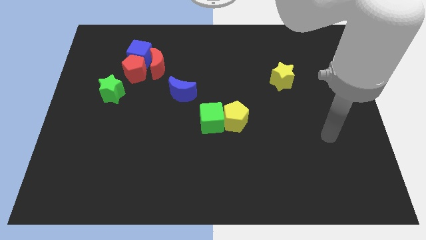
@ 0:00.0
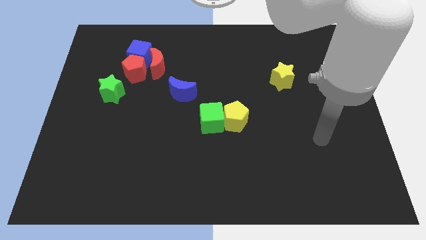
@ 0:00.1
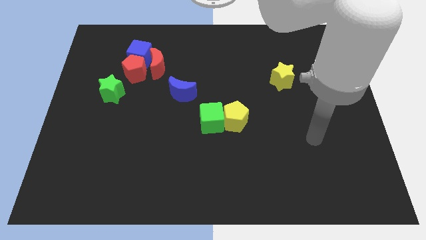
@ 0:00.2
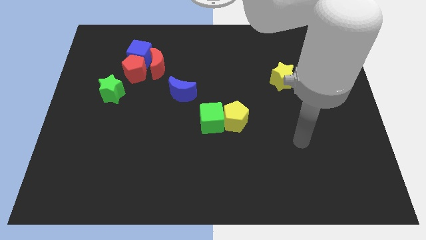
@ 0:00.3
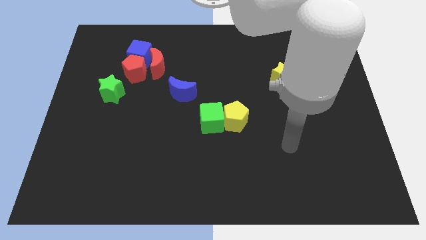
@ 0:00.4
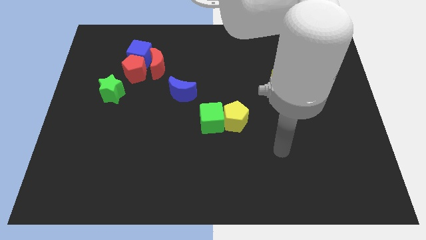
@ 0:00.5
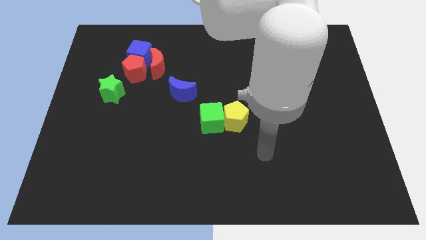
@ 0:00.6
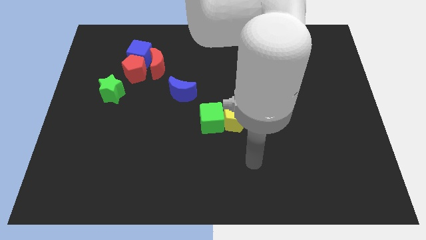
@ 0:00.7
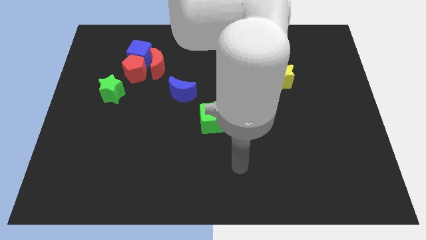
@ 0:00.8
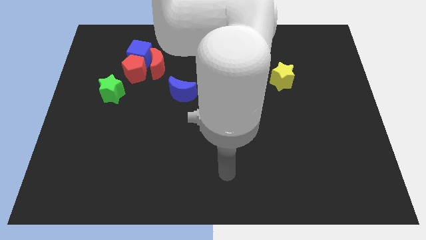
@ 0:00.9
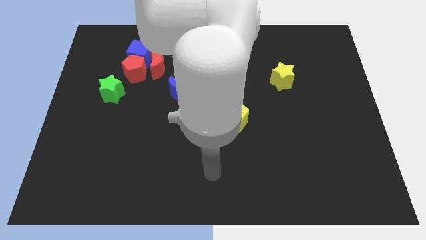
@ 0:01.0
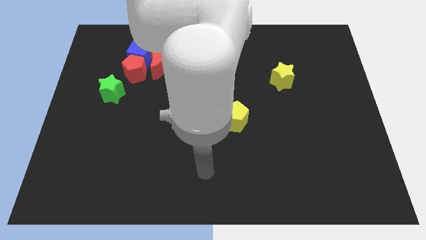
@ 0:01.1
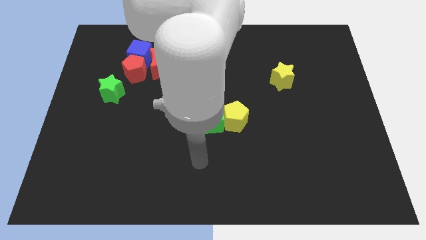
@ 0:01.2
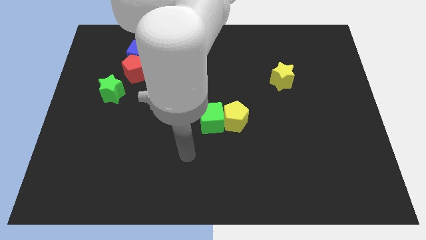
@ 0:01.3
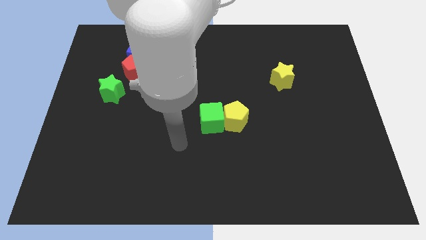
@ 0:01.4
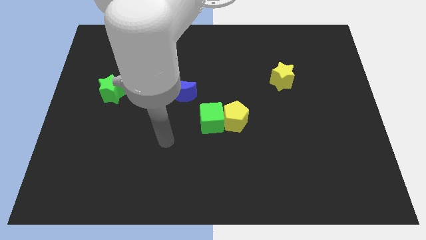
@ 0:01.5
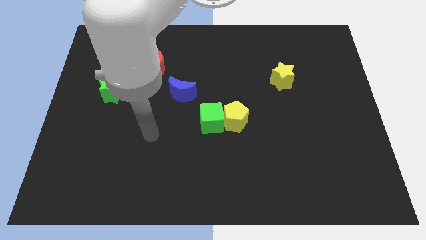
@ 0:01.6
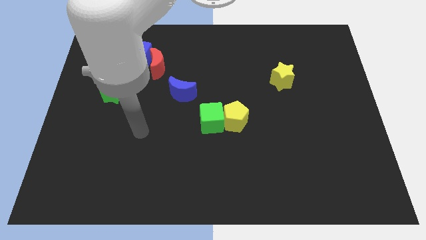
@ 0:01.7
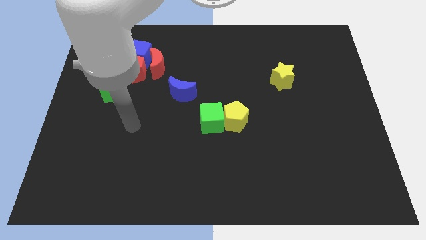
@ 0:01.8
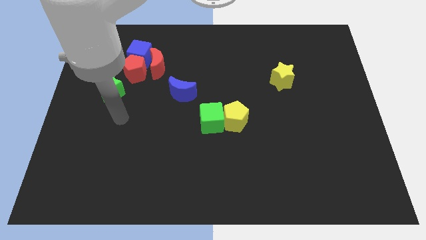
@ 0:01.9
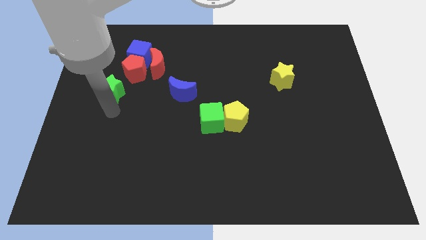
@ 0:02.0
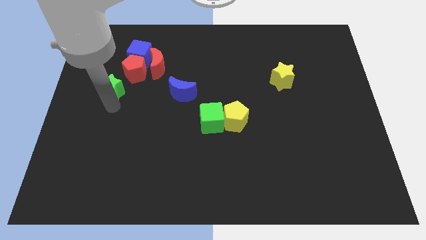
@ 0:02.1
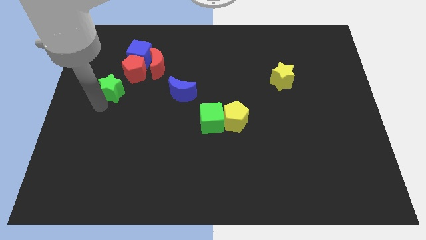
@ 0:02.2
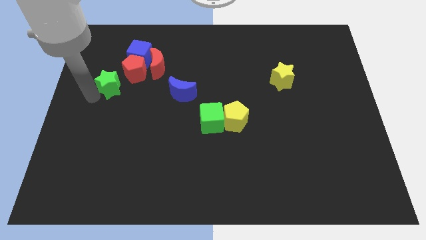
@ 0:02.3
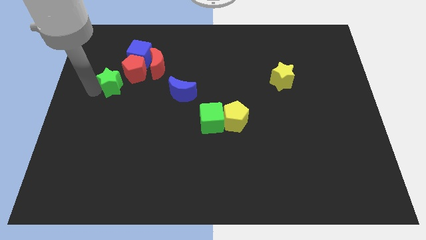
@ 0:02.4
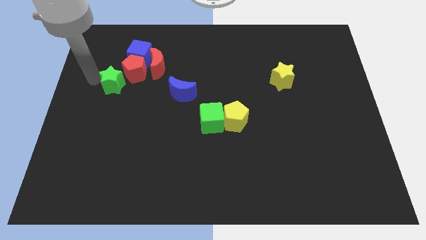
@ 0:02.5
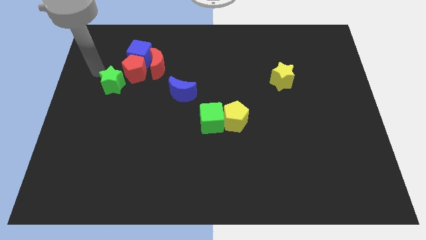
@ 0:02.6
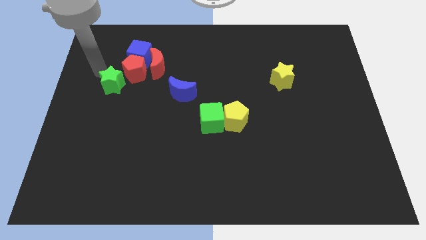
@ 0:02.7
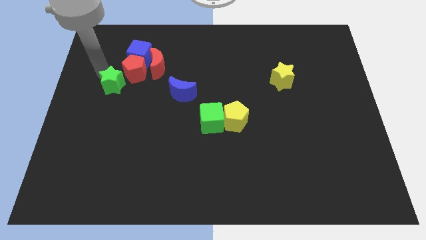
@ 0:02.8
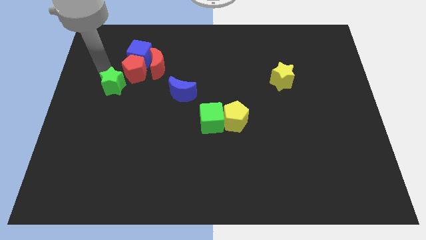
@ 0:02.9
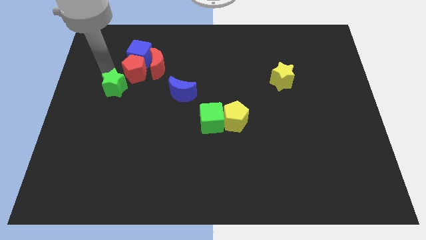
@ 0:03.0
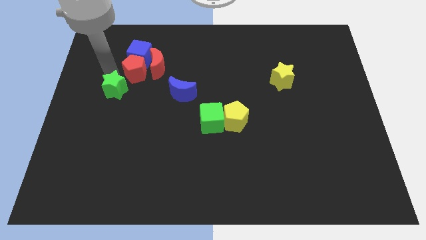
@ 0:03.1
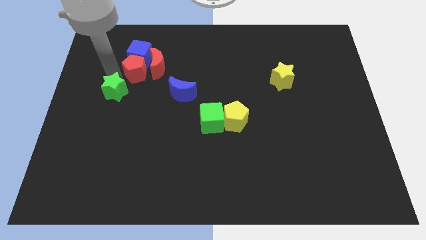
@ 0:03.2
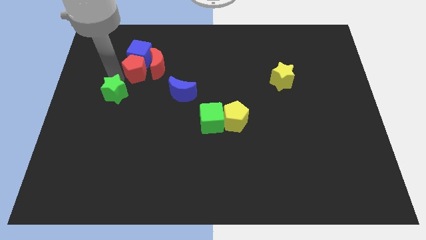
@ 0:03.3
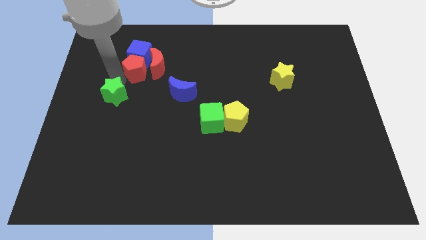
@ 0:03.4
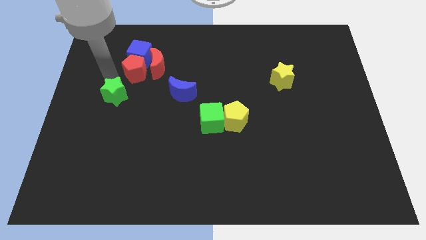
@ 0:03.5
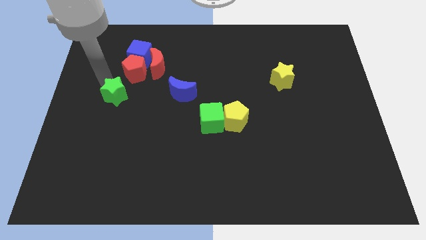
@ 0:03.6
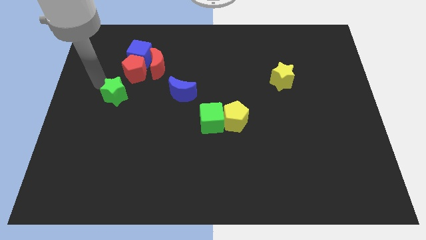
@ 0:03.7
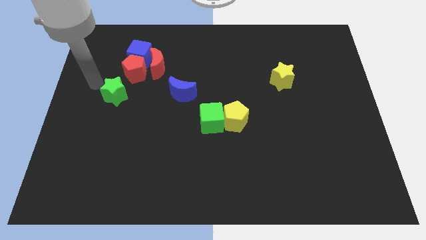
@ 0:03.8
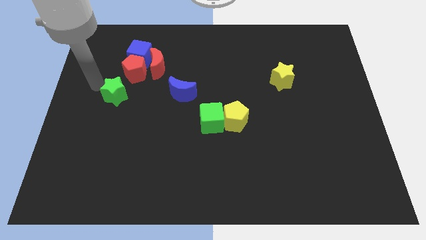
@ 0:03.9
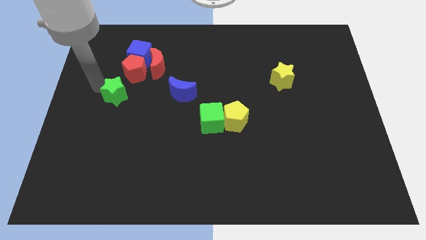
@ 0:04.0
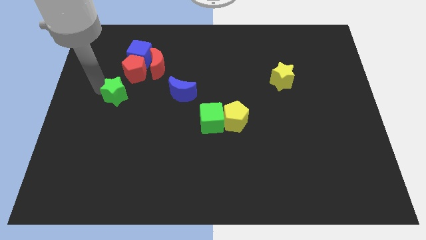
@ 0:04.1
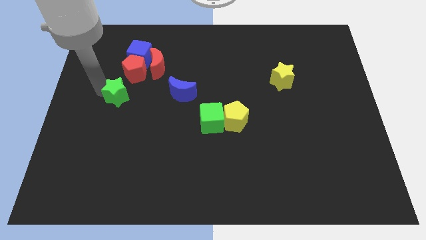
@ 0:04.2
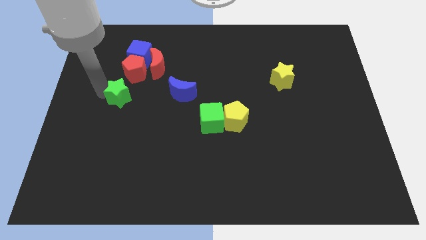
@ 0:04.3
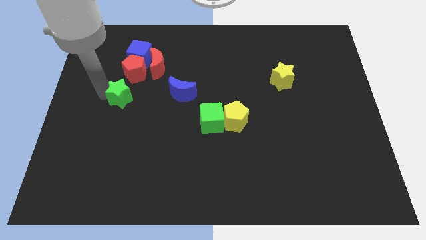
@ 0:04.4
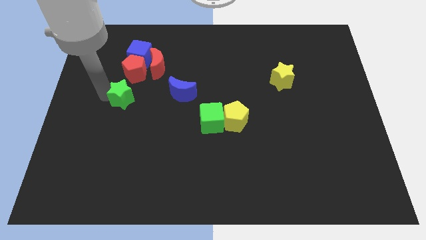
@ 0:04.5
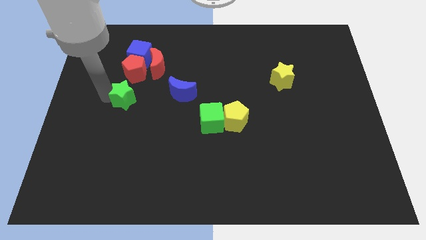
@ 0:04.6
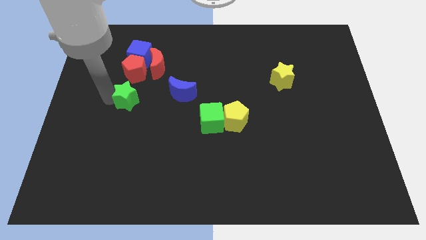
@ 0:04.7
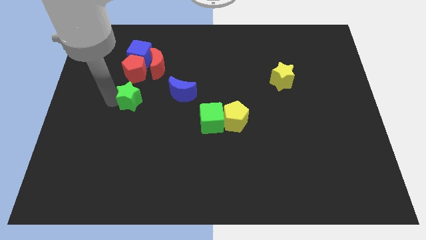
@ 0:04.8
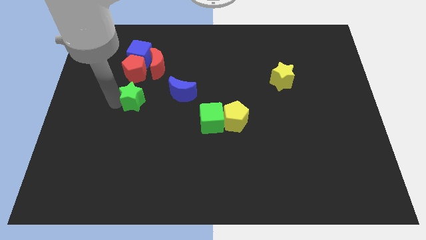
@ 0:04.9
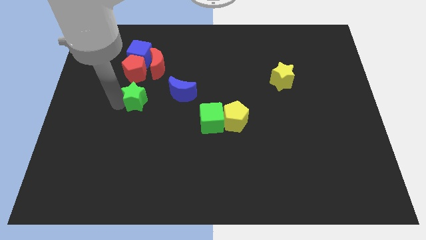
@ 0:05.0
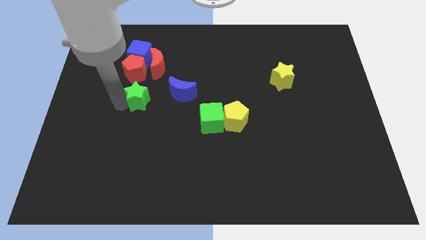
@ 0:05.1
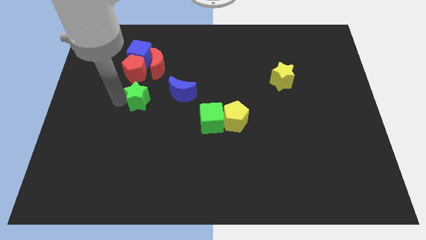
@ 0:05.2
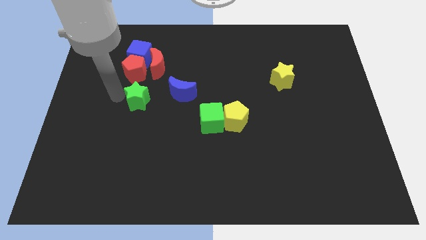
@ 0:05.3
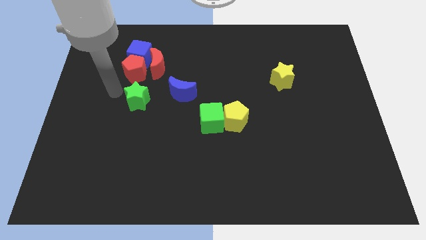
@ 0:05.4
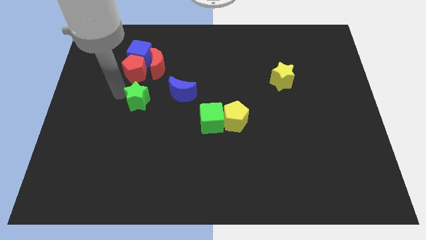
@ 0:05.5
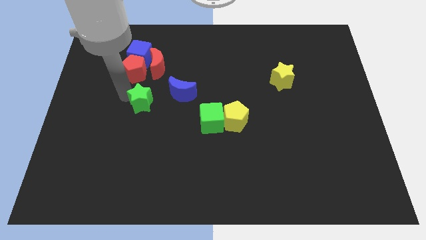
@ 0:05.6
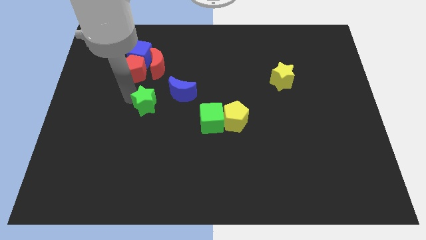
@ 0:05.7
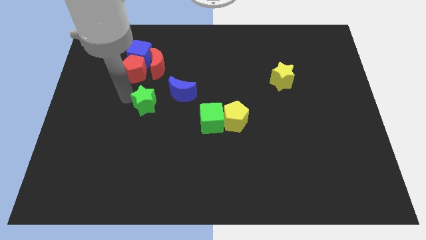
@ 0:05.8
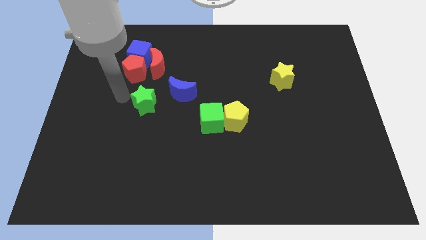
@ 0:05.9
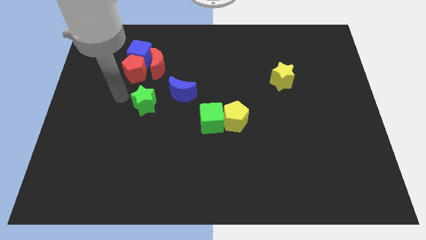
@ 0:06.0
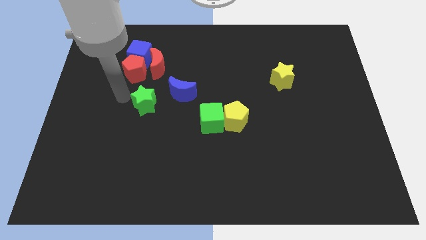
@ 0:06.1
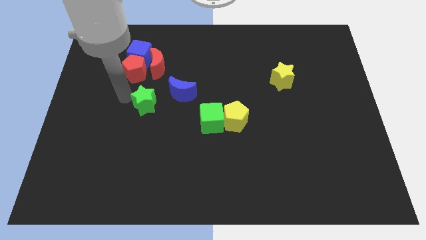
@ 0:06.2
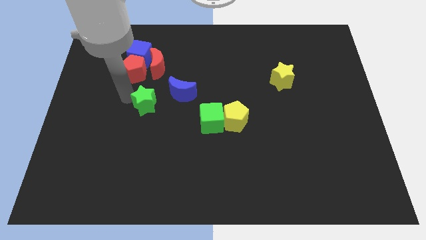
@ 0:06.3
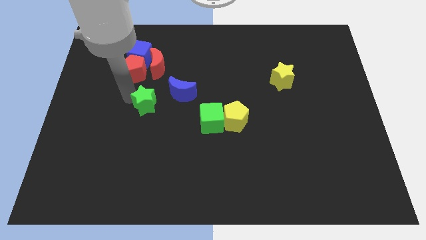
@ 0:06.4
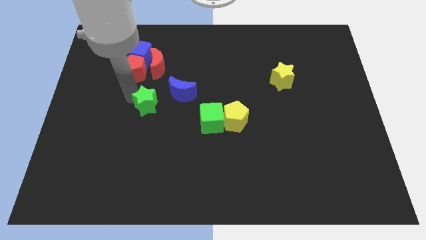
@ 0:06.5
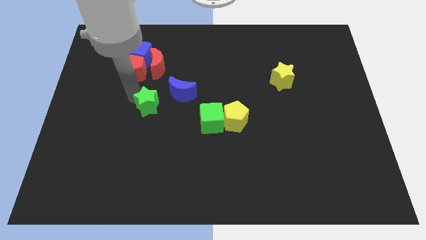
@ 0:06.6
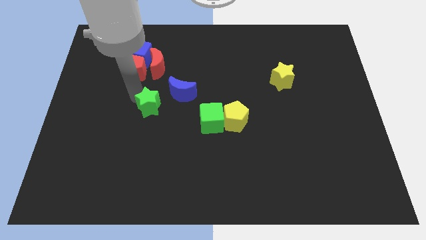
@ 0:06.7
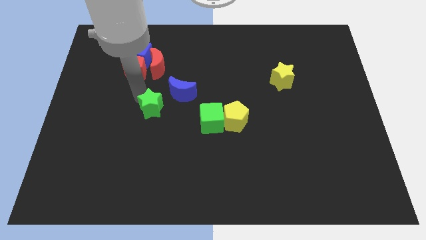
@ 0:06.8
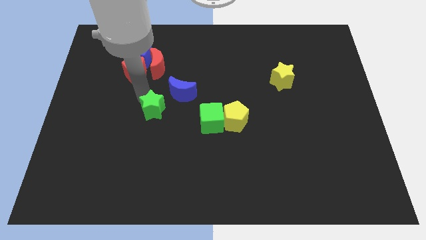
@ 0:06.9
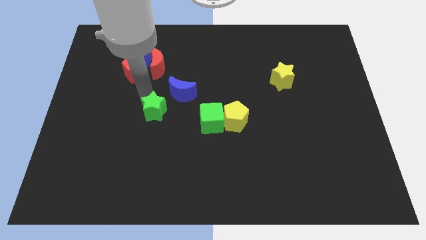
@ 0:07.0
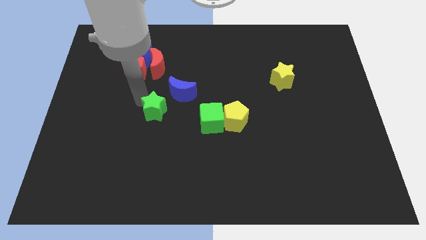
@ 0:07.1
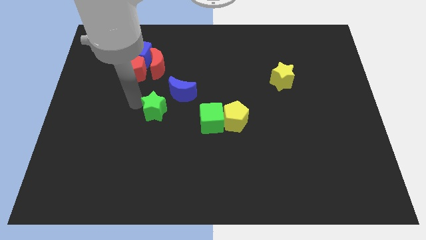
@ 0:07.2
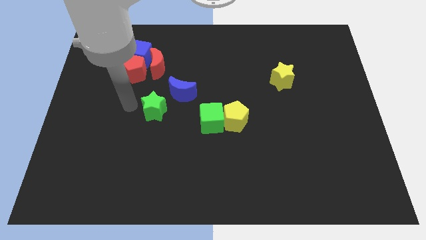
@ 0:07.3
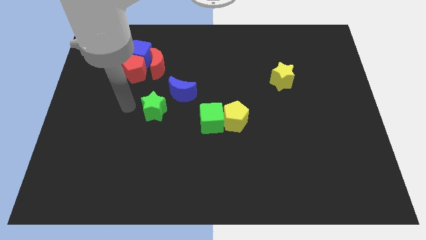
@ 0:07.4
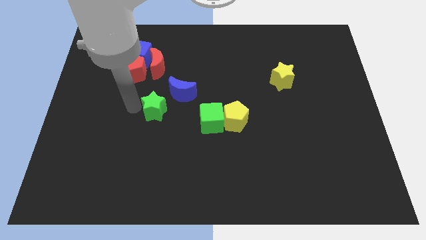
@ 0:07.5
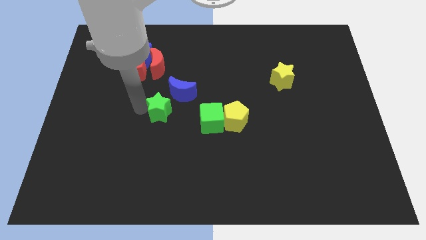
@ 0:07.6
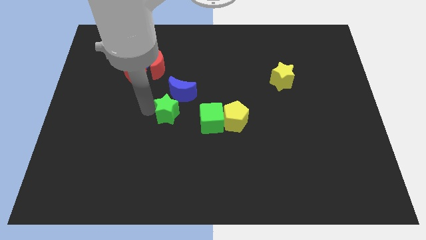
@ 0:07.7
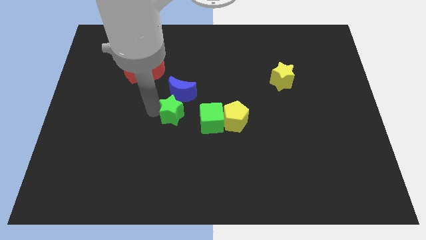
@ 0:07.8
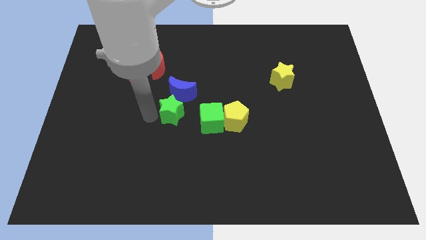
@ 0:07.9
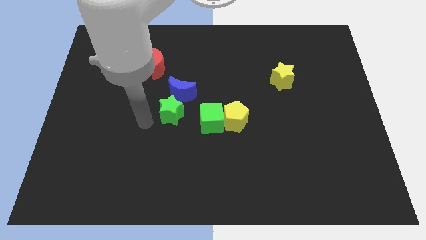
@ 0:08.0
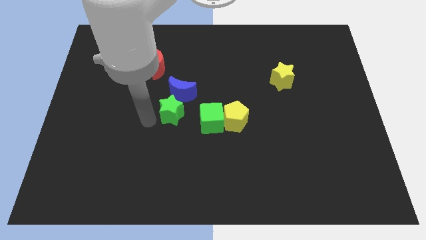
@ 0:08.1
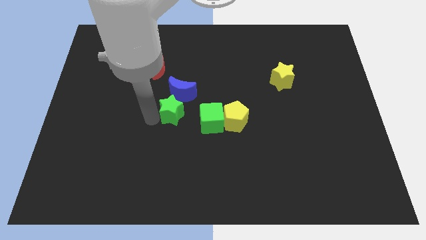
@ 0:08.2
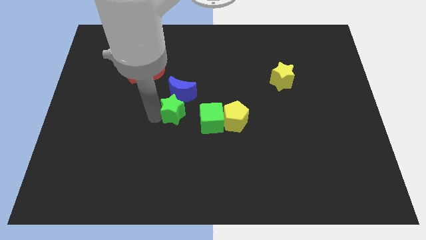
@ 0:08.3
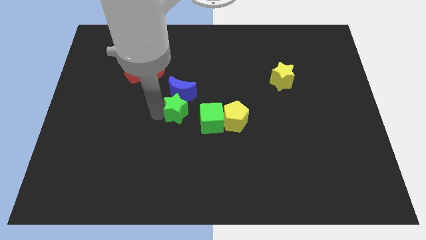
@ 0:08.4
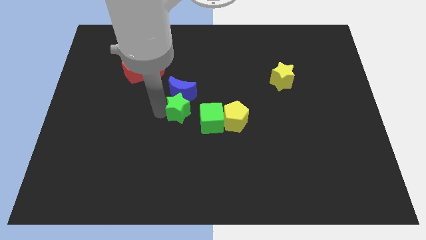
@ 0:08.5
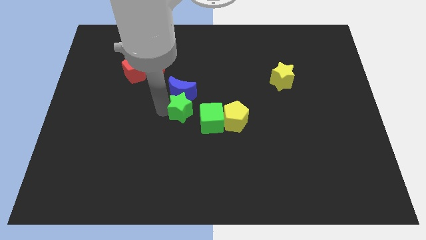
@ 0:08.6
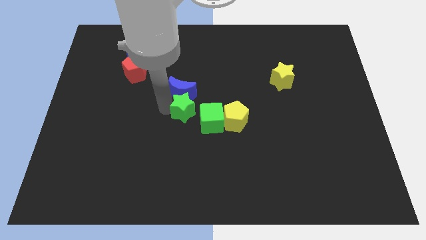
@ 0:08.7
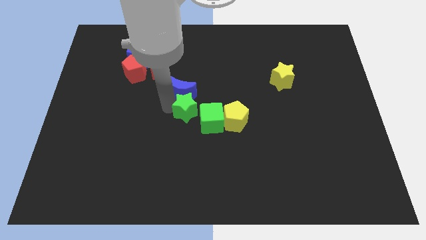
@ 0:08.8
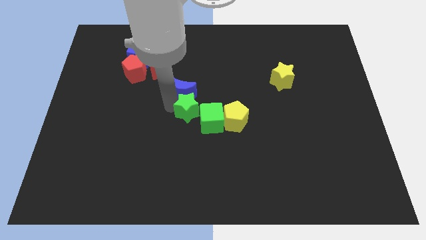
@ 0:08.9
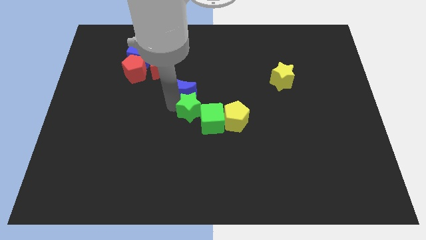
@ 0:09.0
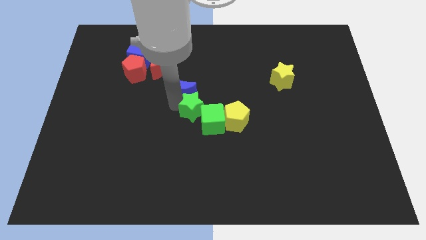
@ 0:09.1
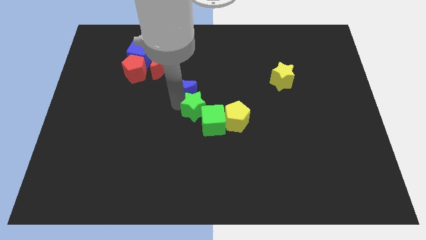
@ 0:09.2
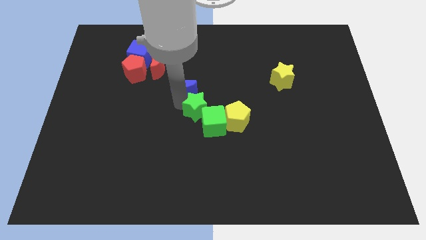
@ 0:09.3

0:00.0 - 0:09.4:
move the green star right
